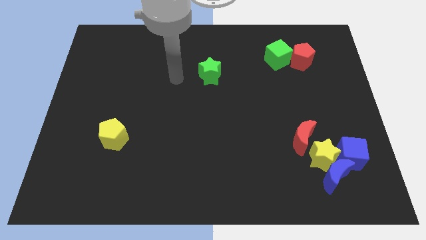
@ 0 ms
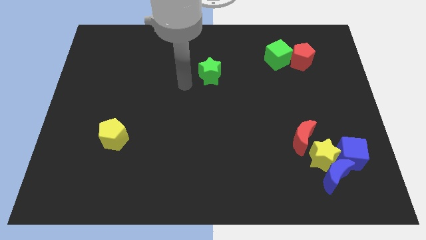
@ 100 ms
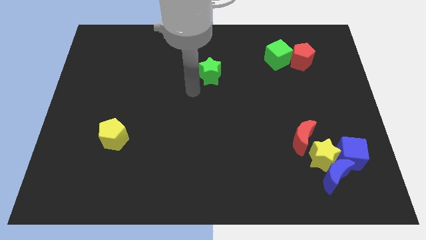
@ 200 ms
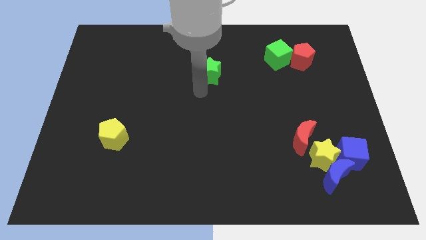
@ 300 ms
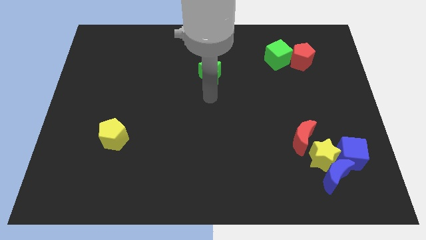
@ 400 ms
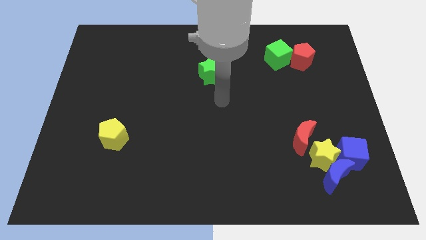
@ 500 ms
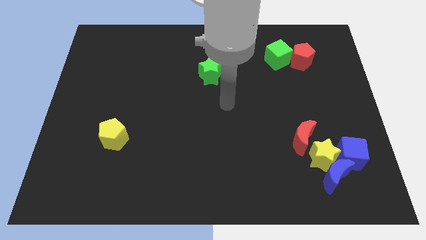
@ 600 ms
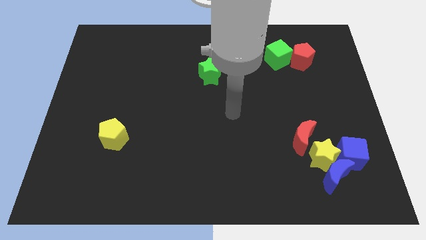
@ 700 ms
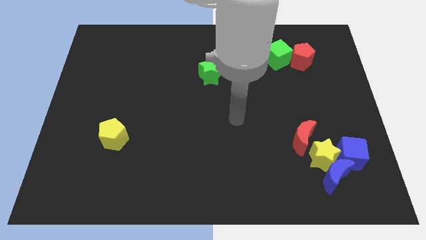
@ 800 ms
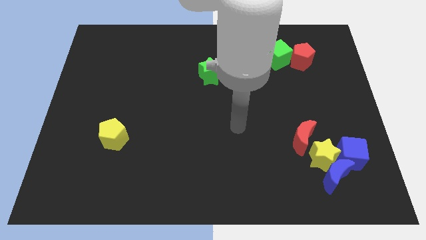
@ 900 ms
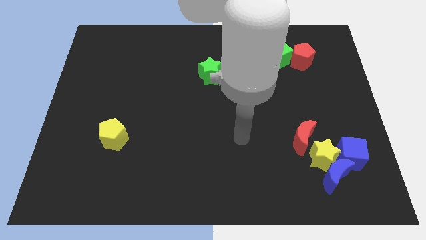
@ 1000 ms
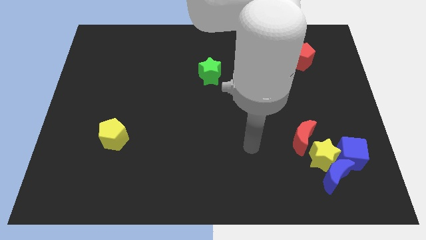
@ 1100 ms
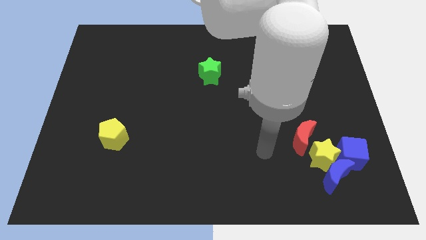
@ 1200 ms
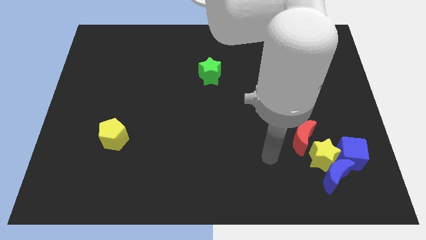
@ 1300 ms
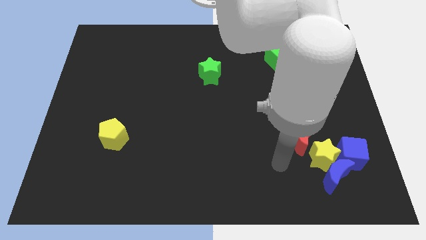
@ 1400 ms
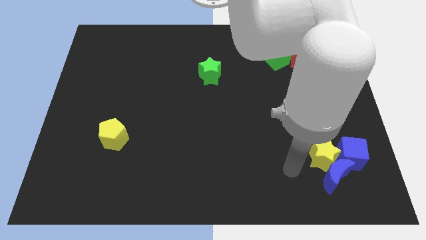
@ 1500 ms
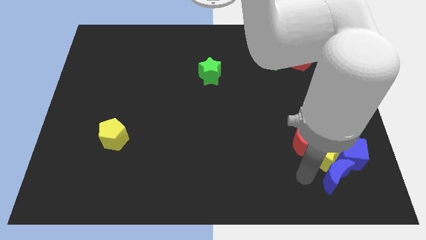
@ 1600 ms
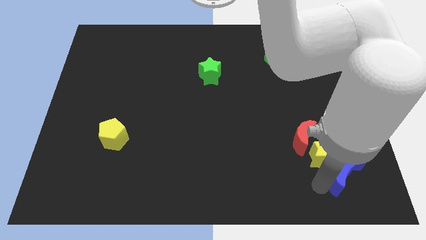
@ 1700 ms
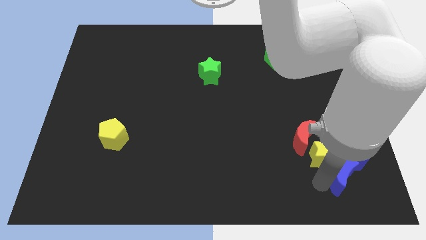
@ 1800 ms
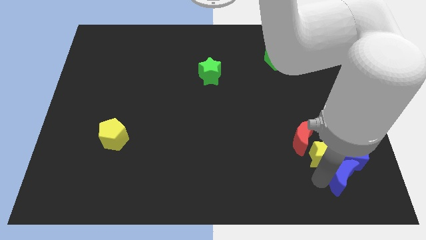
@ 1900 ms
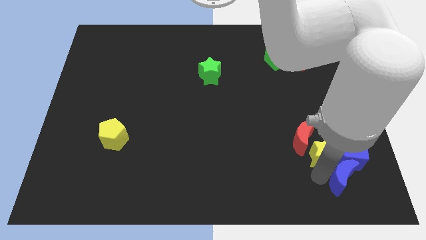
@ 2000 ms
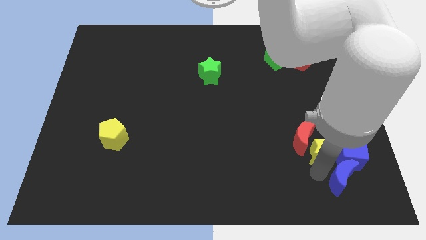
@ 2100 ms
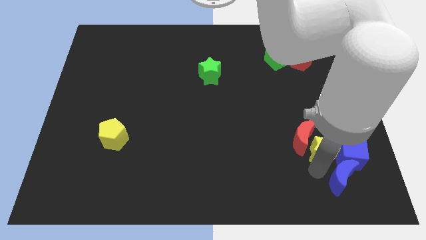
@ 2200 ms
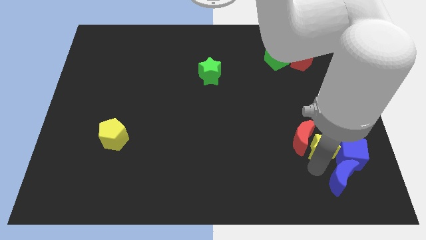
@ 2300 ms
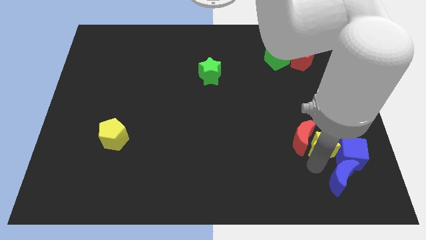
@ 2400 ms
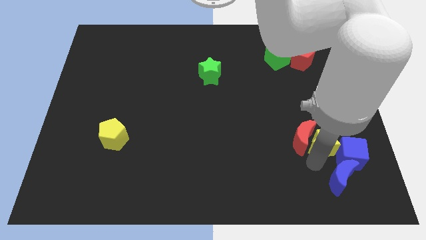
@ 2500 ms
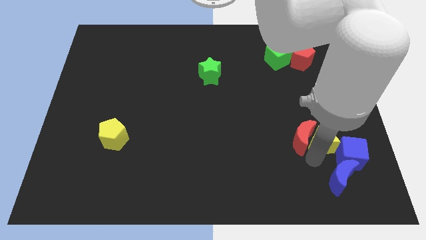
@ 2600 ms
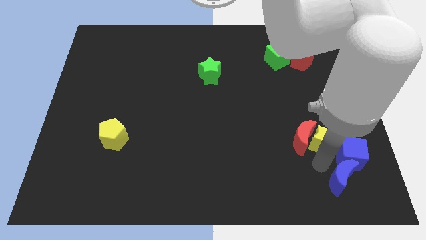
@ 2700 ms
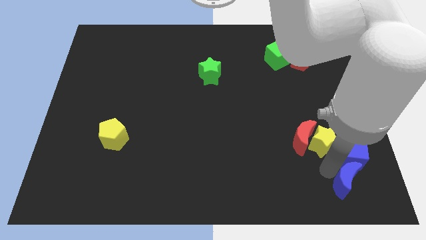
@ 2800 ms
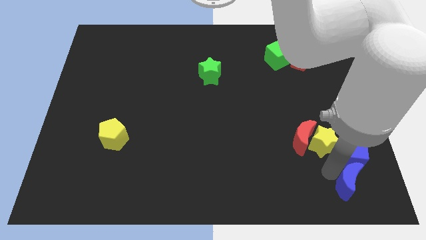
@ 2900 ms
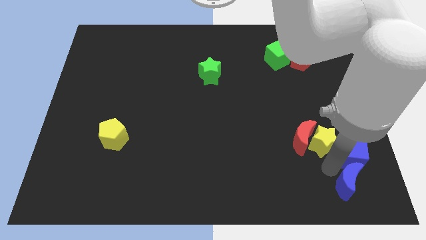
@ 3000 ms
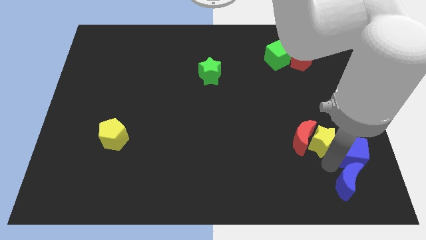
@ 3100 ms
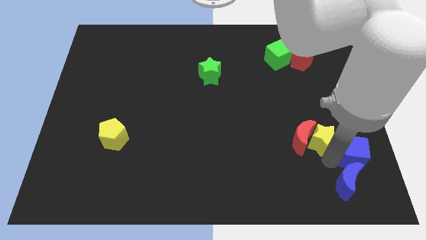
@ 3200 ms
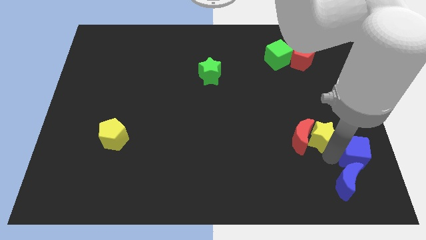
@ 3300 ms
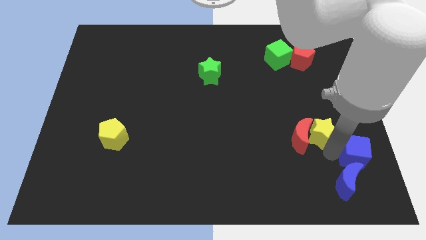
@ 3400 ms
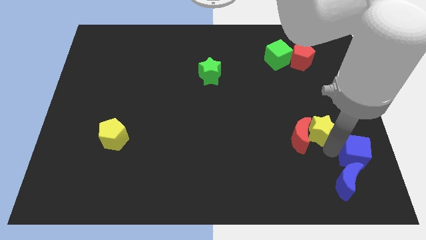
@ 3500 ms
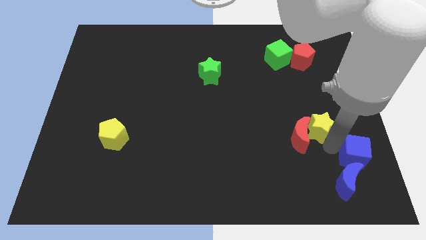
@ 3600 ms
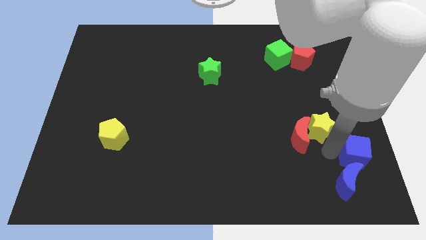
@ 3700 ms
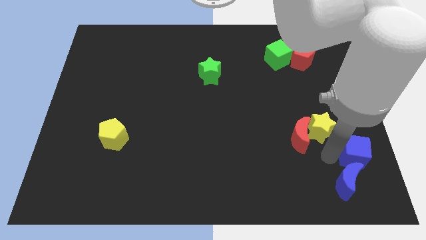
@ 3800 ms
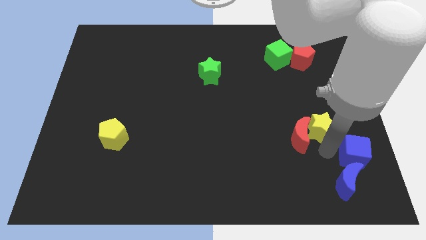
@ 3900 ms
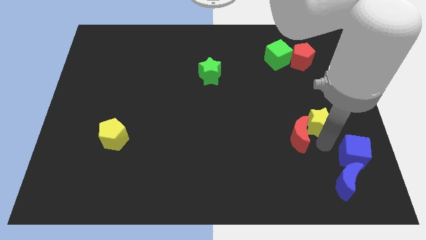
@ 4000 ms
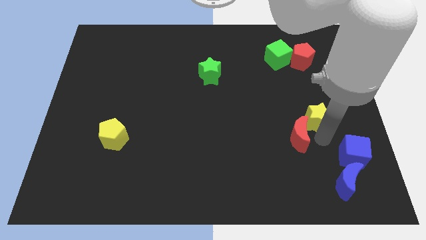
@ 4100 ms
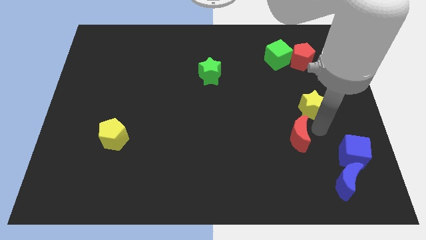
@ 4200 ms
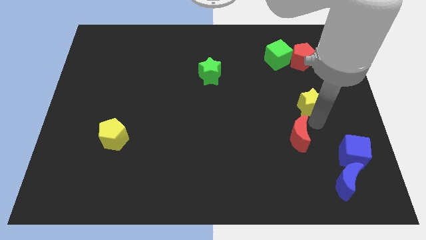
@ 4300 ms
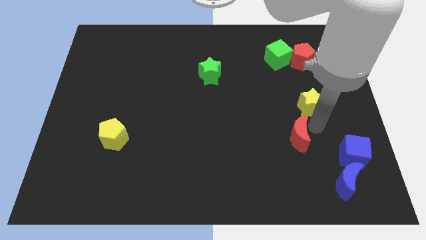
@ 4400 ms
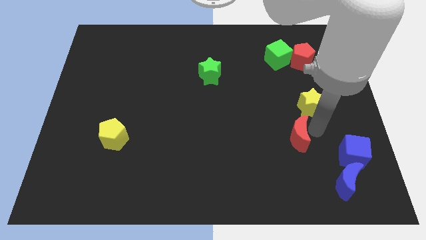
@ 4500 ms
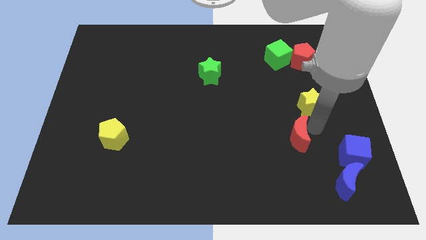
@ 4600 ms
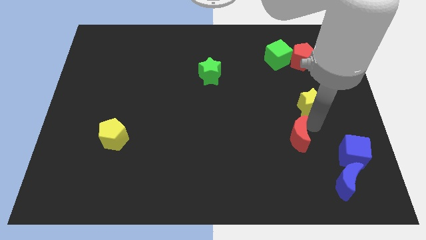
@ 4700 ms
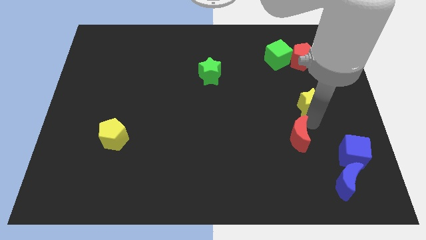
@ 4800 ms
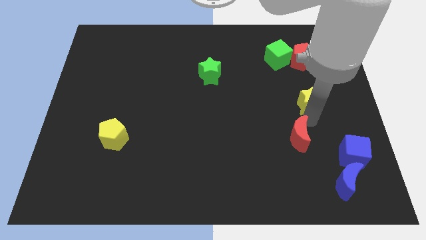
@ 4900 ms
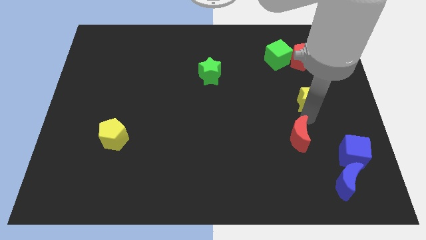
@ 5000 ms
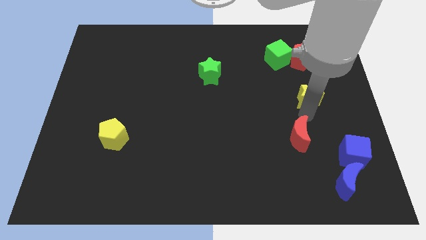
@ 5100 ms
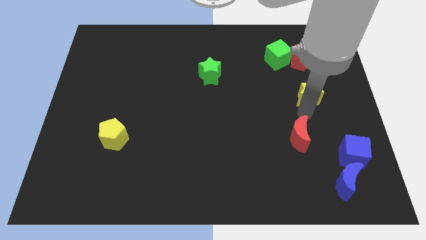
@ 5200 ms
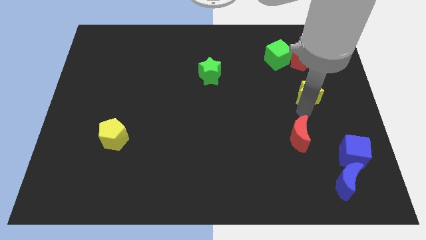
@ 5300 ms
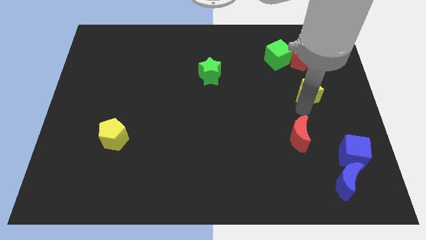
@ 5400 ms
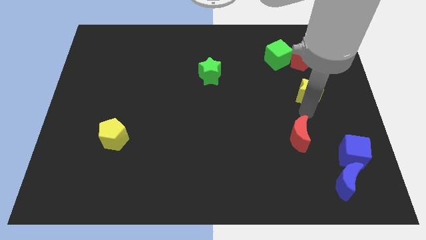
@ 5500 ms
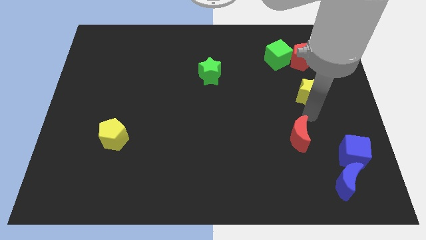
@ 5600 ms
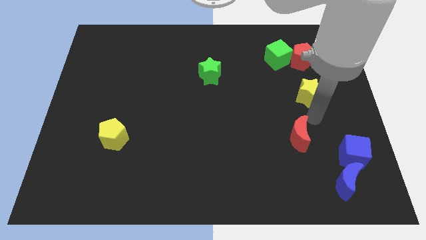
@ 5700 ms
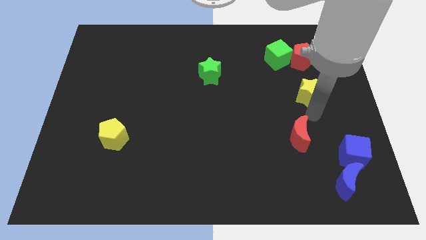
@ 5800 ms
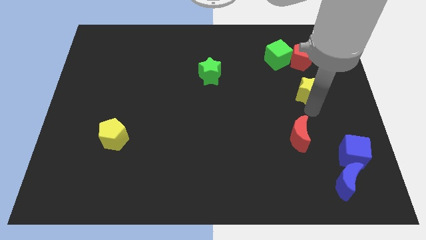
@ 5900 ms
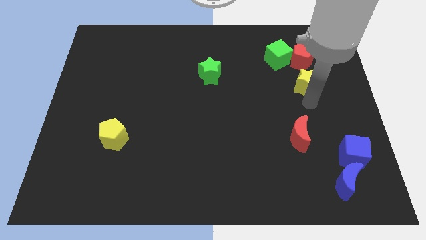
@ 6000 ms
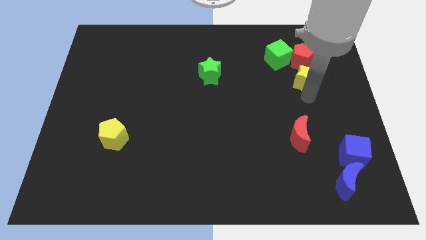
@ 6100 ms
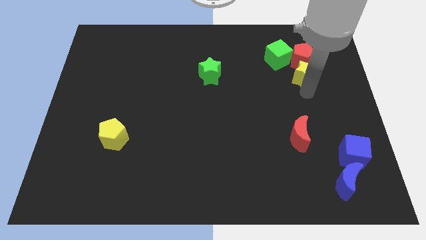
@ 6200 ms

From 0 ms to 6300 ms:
slide the yellow star towards the red pentagon

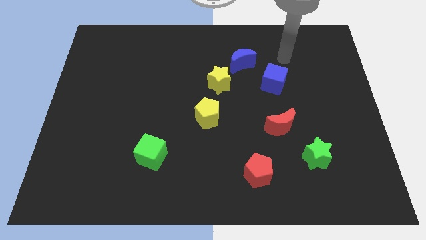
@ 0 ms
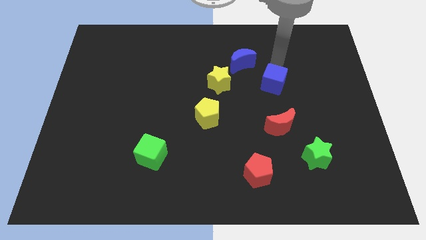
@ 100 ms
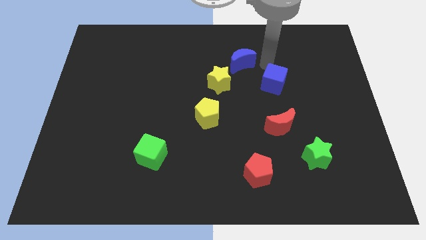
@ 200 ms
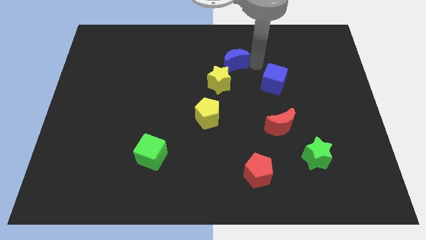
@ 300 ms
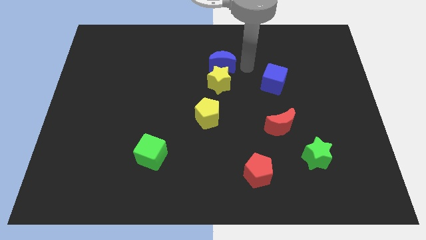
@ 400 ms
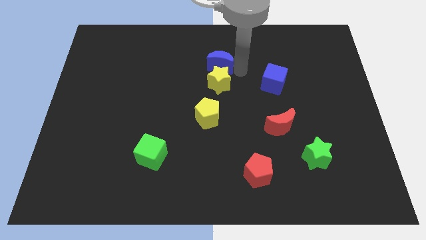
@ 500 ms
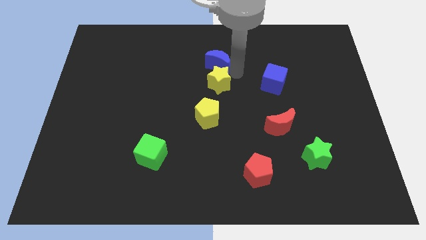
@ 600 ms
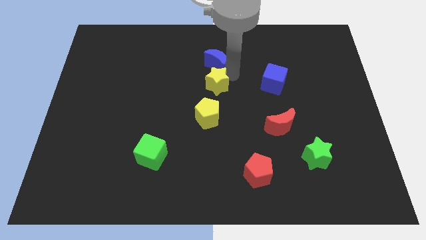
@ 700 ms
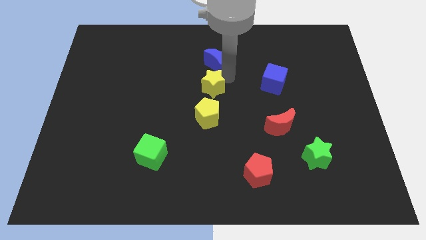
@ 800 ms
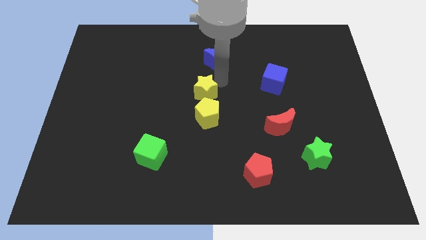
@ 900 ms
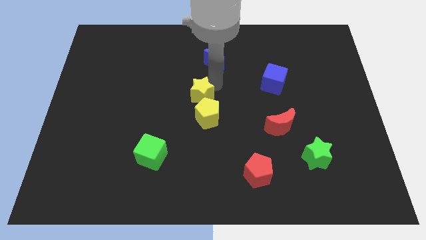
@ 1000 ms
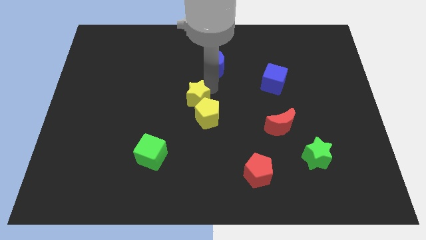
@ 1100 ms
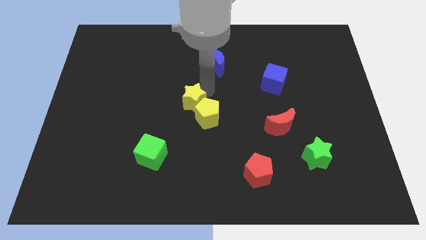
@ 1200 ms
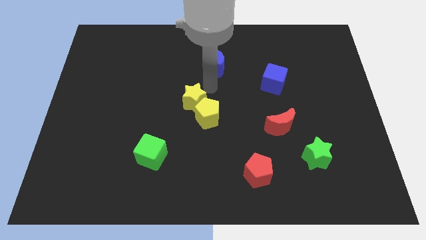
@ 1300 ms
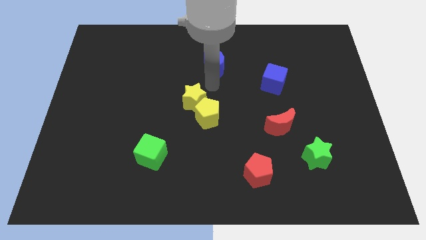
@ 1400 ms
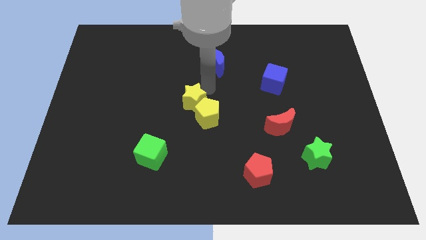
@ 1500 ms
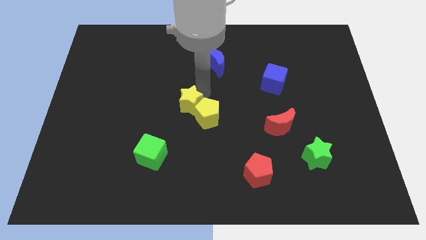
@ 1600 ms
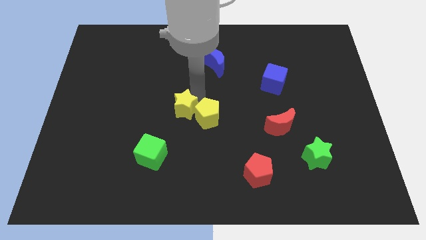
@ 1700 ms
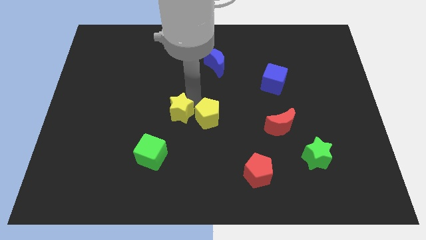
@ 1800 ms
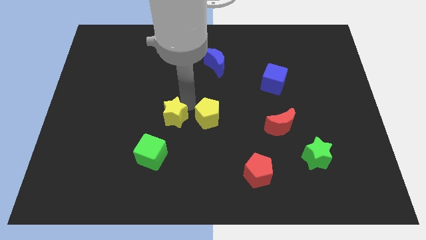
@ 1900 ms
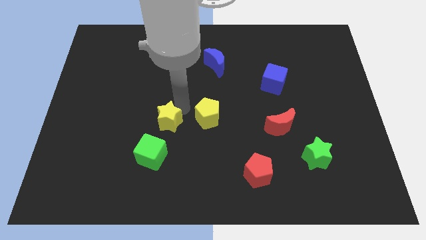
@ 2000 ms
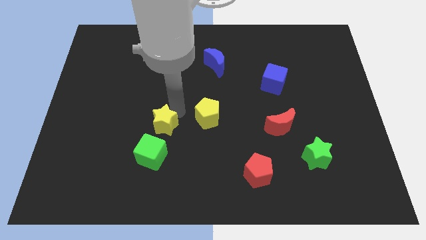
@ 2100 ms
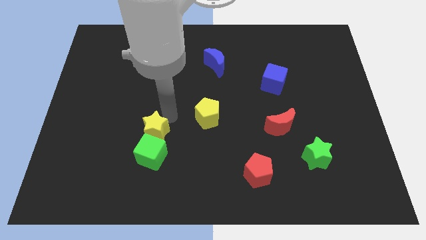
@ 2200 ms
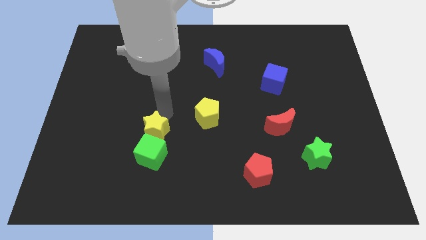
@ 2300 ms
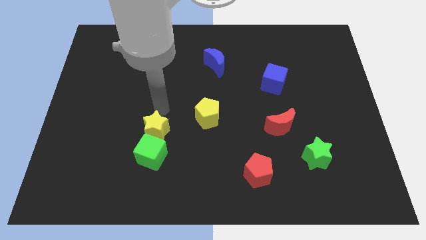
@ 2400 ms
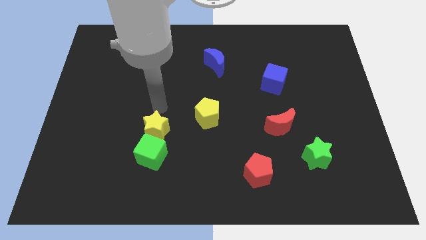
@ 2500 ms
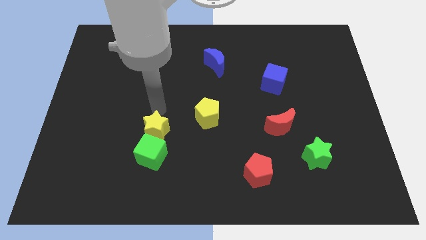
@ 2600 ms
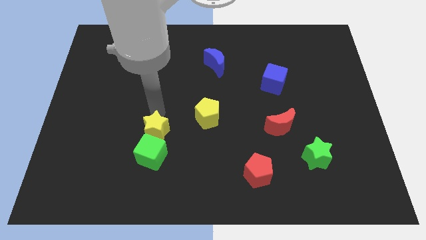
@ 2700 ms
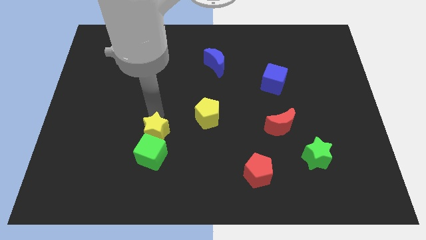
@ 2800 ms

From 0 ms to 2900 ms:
put the yellow star close to the green cube
